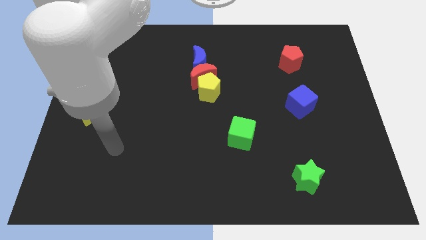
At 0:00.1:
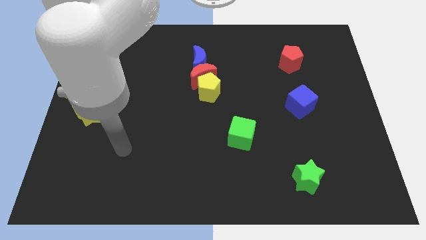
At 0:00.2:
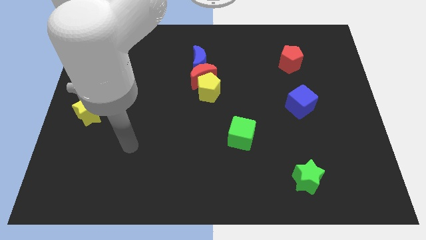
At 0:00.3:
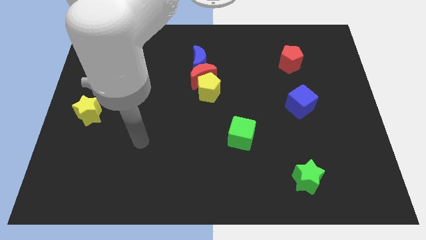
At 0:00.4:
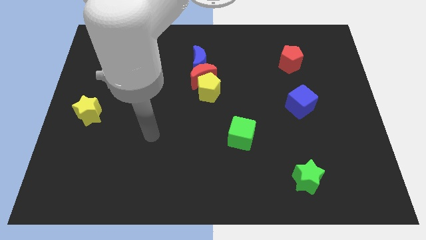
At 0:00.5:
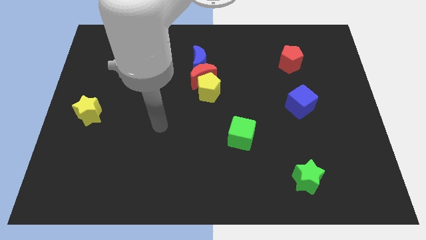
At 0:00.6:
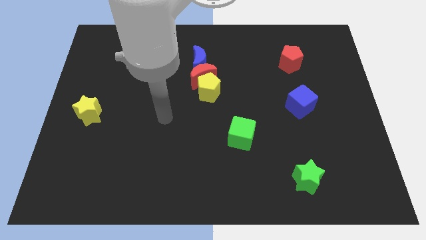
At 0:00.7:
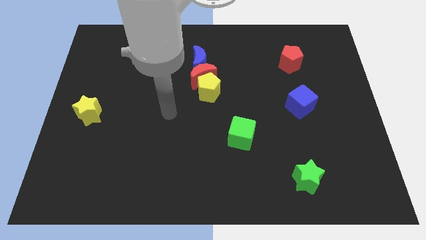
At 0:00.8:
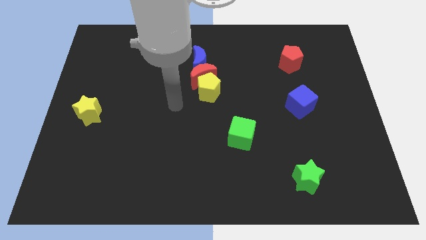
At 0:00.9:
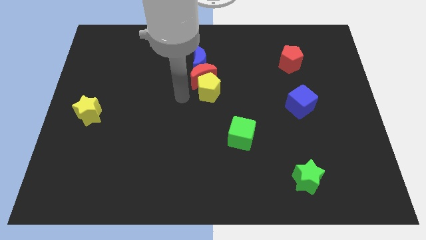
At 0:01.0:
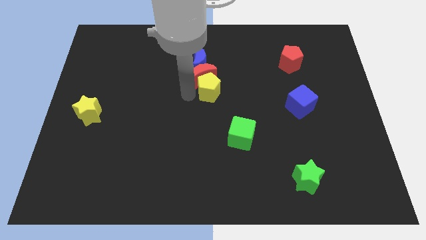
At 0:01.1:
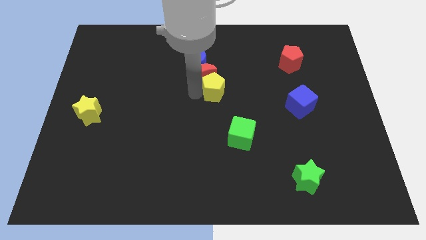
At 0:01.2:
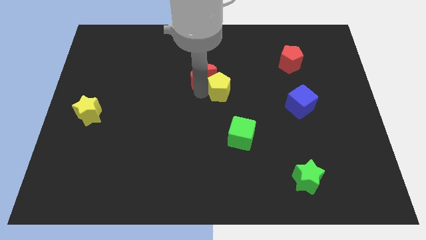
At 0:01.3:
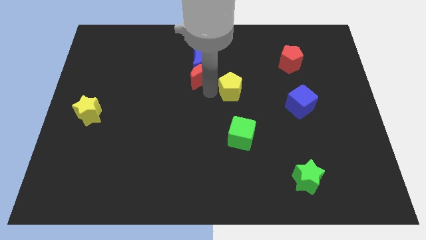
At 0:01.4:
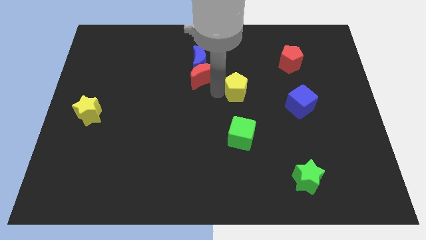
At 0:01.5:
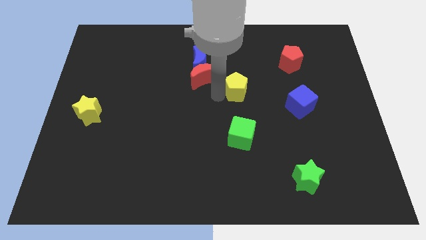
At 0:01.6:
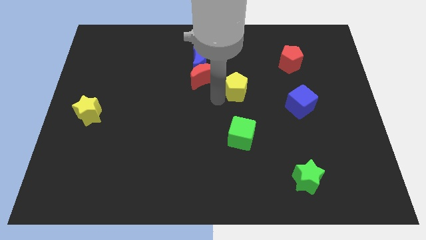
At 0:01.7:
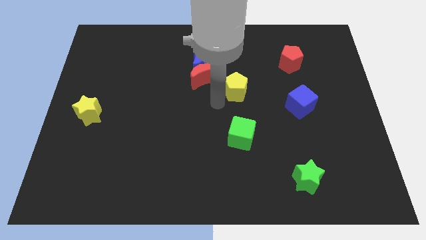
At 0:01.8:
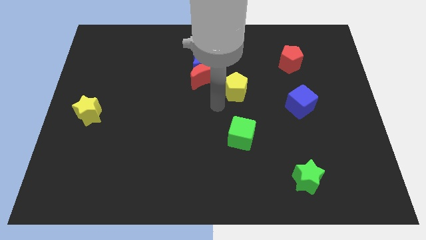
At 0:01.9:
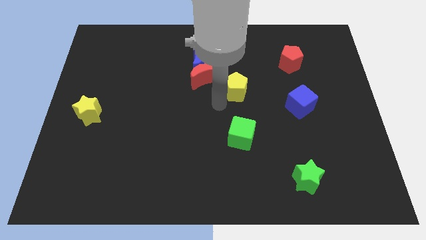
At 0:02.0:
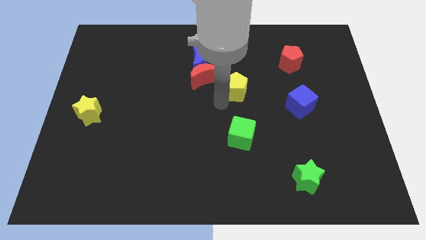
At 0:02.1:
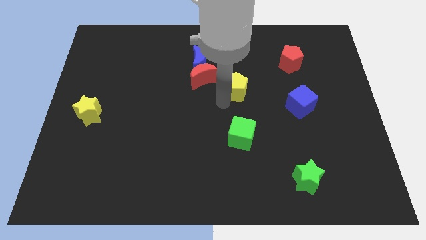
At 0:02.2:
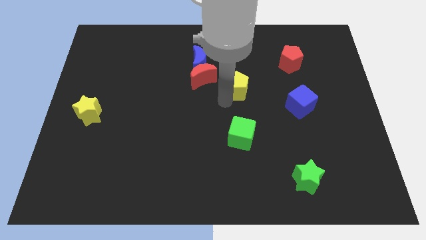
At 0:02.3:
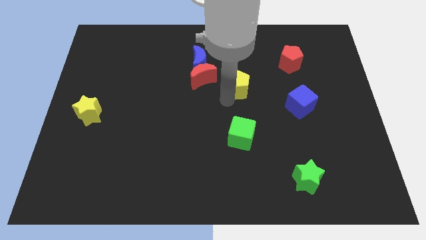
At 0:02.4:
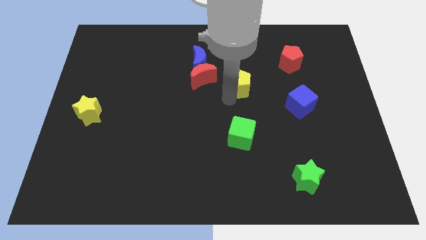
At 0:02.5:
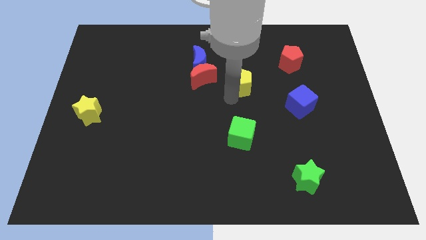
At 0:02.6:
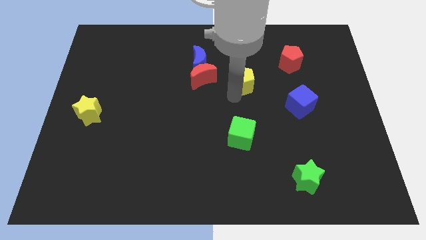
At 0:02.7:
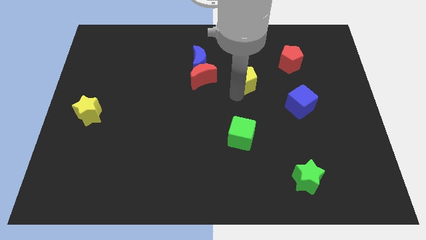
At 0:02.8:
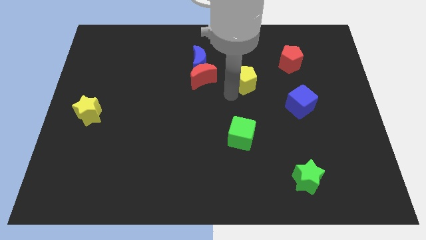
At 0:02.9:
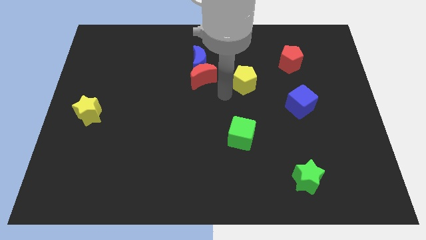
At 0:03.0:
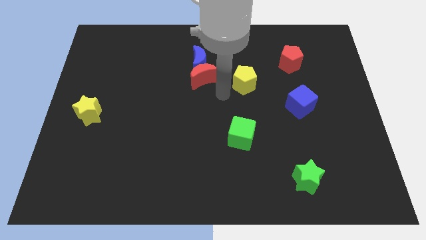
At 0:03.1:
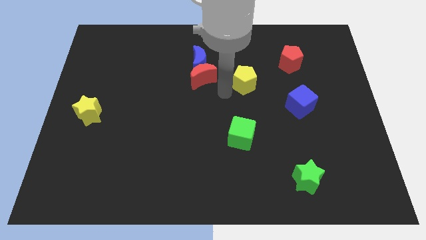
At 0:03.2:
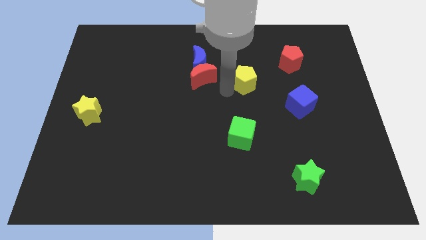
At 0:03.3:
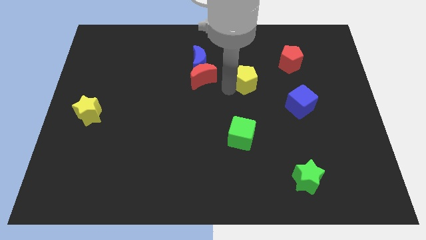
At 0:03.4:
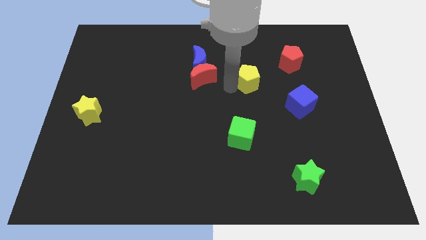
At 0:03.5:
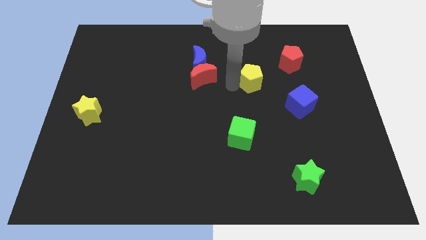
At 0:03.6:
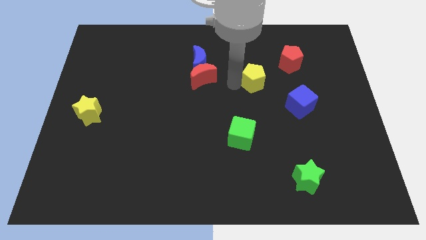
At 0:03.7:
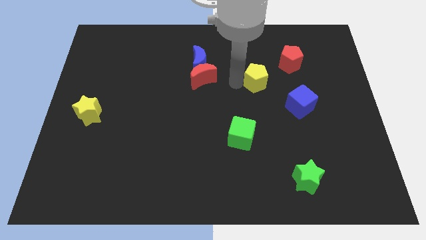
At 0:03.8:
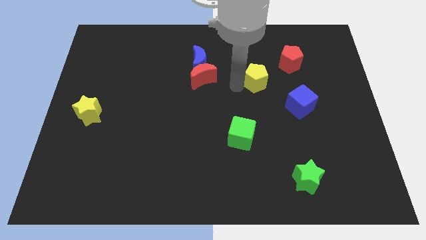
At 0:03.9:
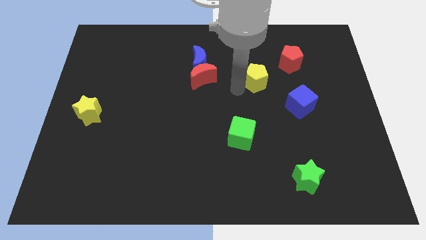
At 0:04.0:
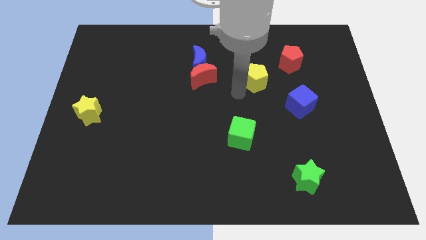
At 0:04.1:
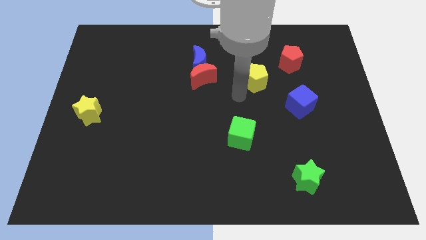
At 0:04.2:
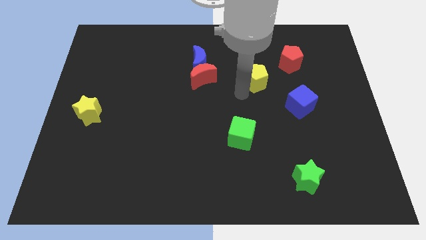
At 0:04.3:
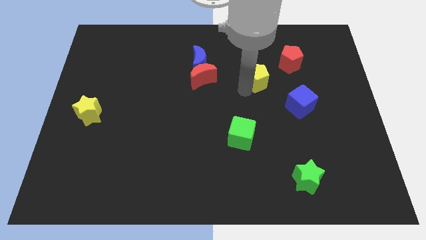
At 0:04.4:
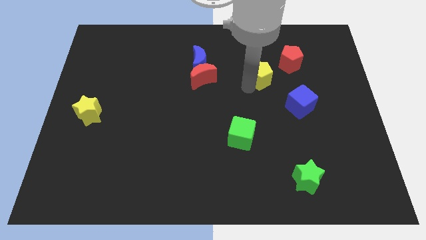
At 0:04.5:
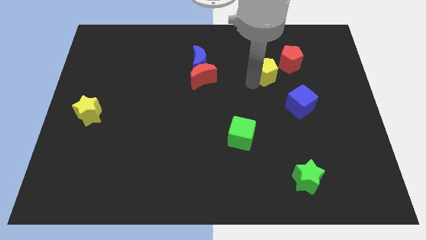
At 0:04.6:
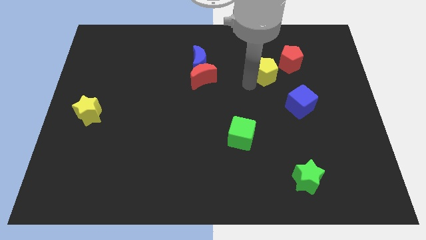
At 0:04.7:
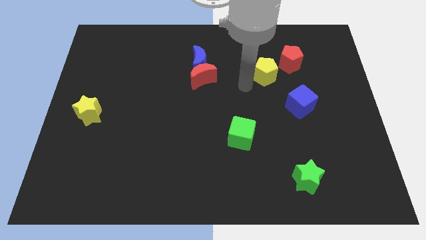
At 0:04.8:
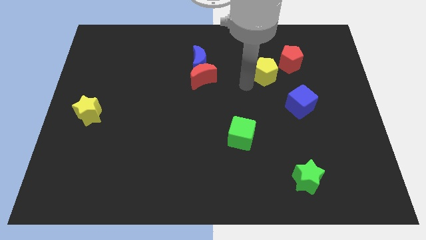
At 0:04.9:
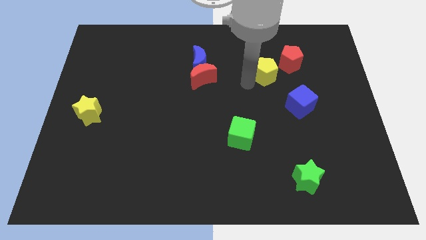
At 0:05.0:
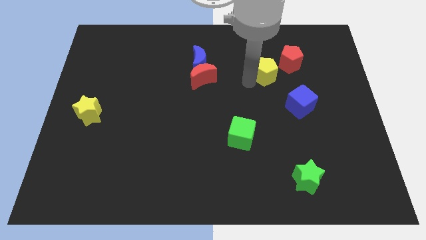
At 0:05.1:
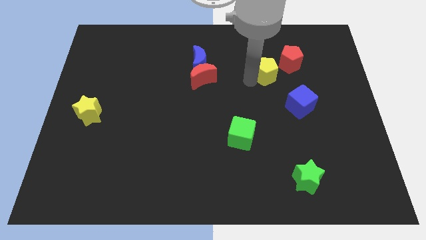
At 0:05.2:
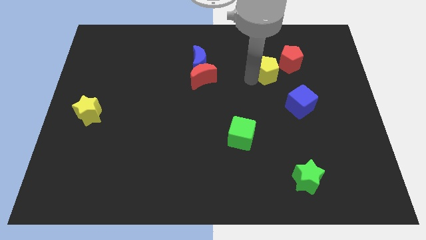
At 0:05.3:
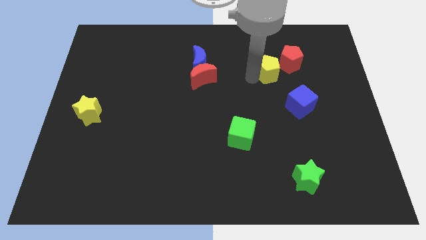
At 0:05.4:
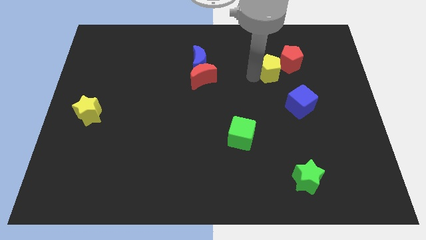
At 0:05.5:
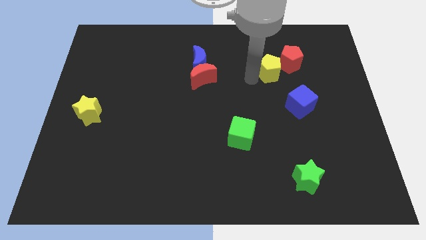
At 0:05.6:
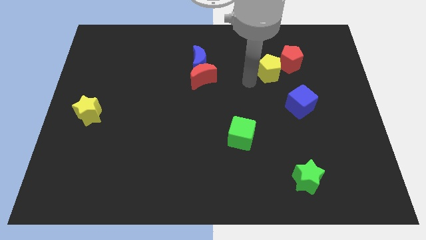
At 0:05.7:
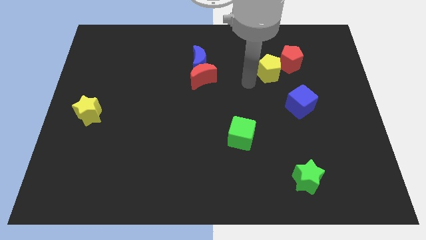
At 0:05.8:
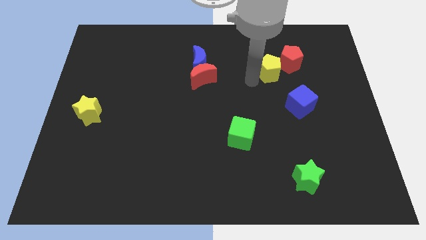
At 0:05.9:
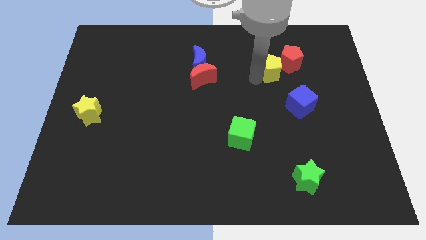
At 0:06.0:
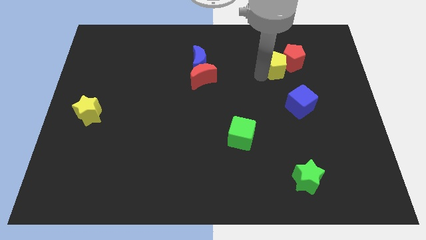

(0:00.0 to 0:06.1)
slide the yellow pentagon next to the red pentagon
